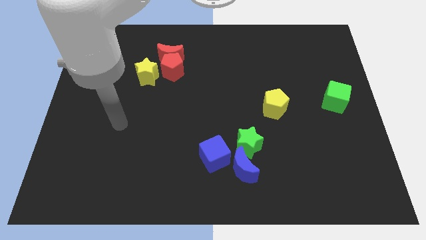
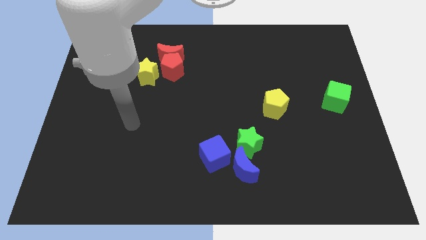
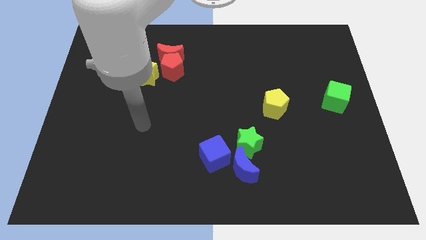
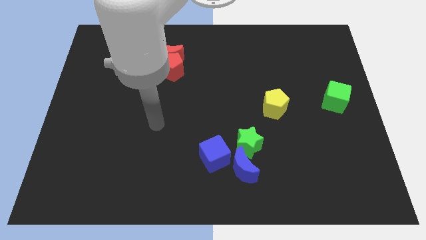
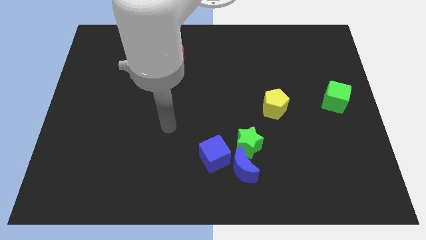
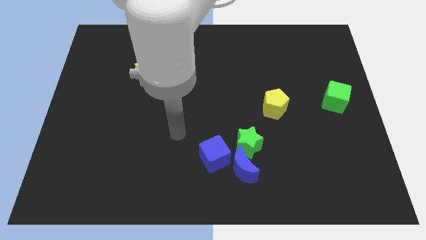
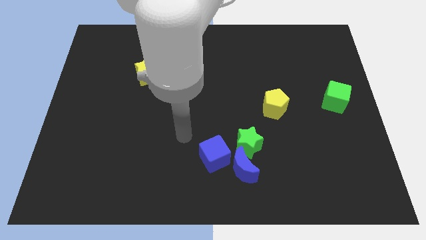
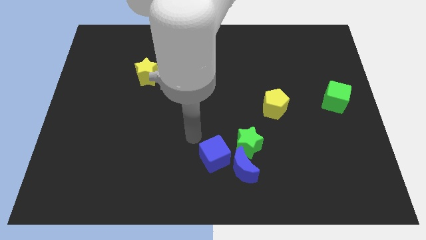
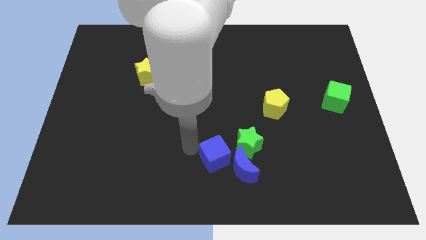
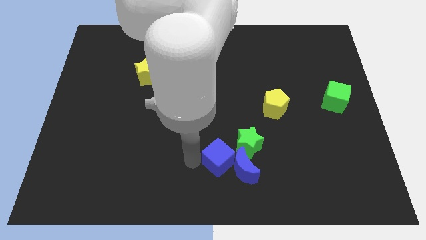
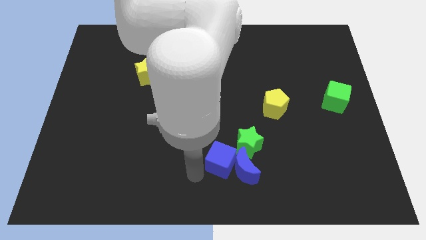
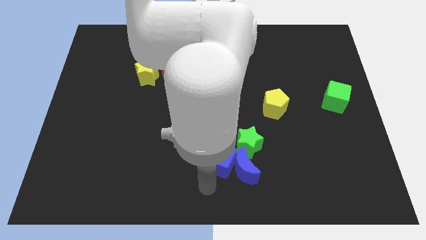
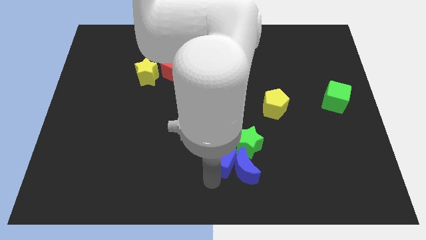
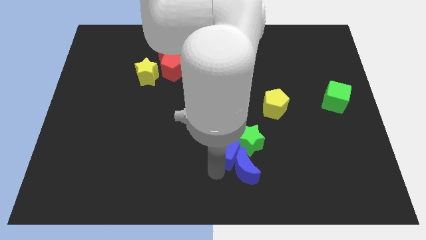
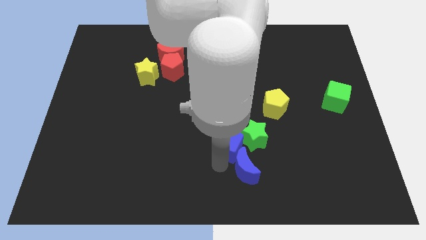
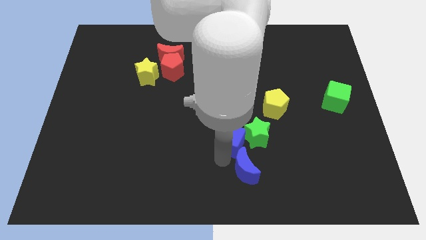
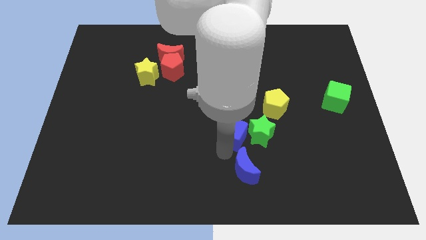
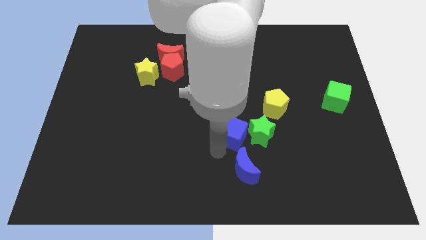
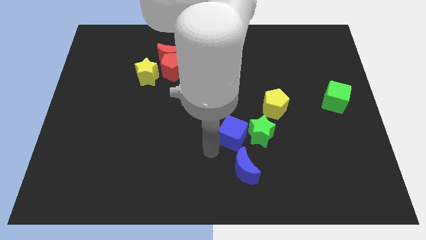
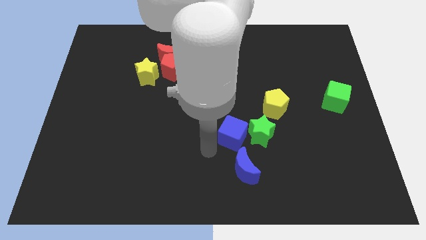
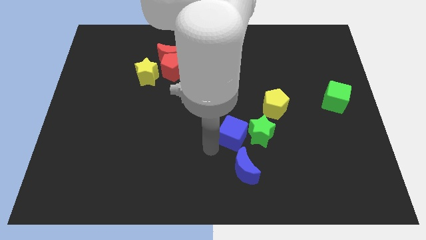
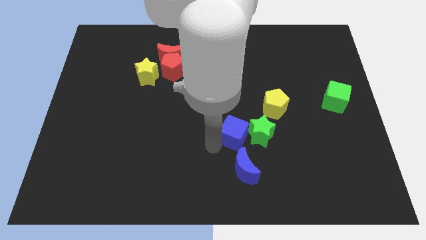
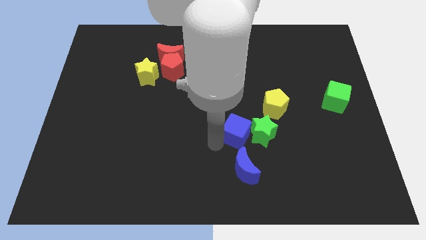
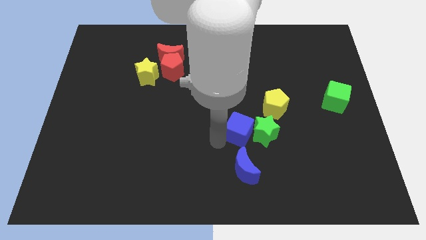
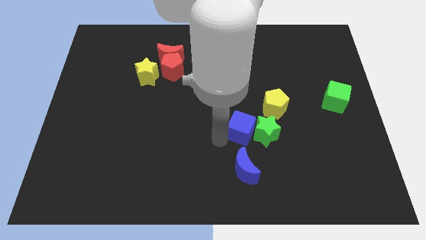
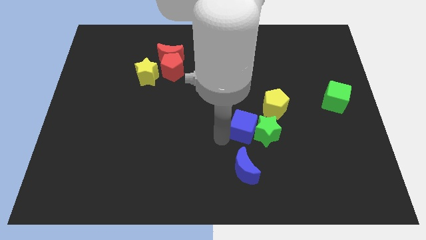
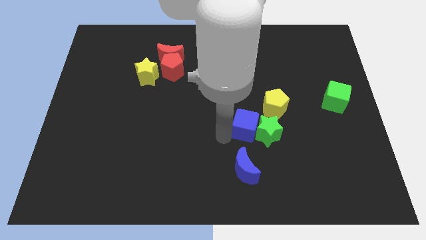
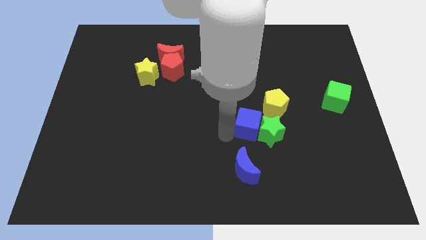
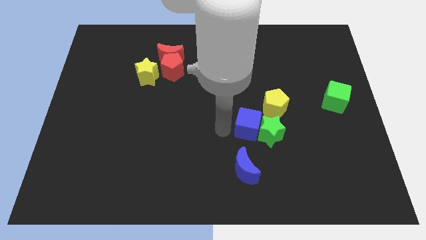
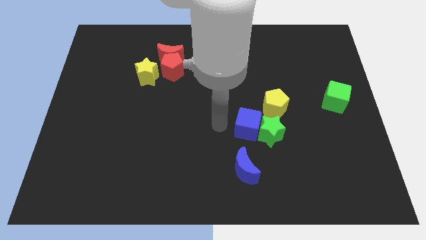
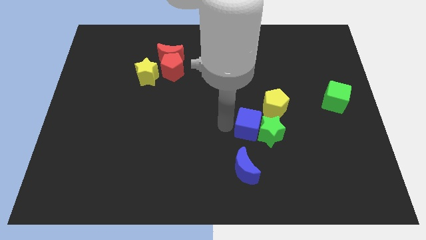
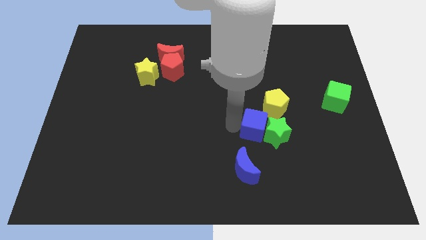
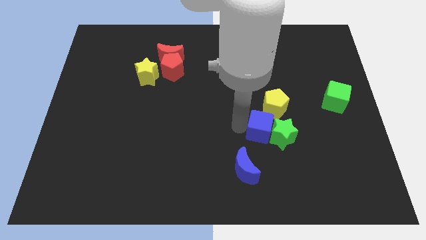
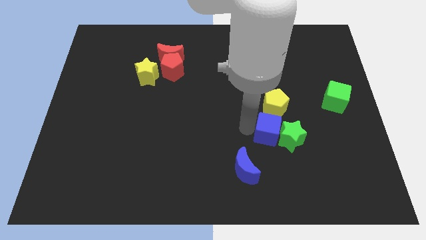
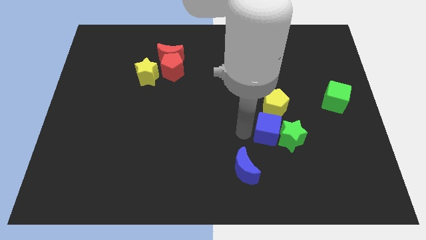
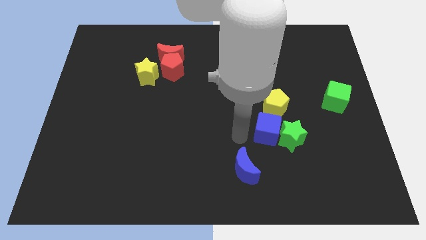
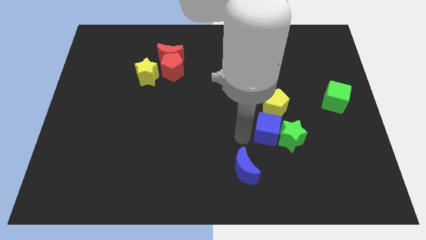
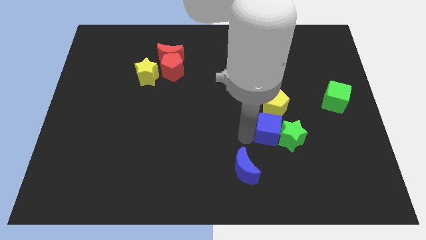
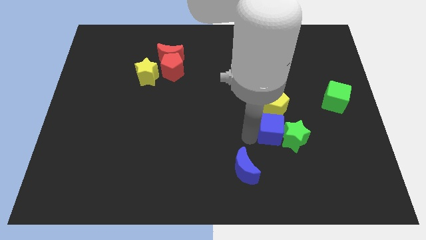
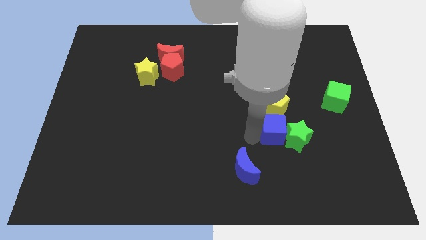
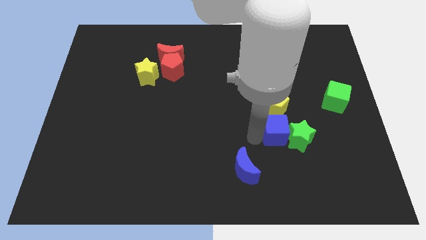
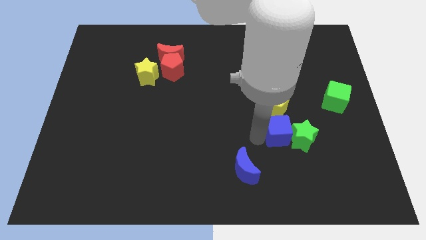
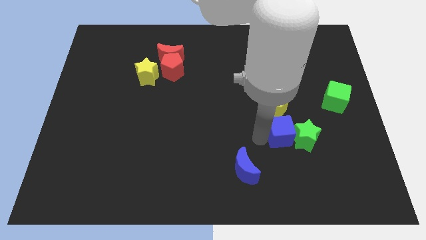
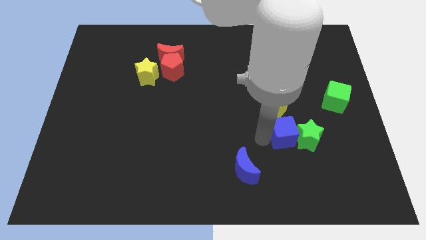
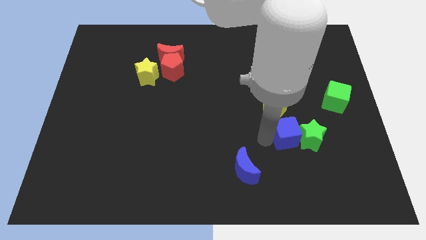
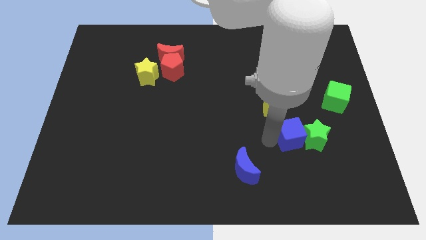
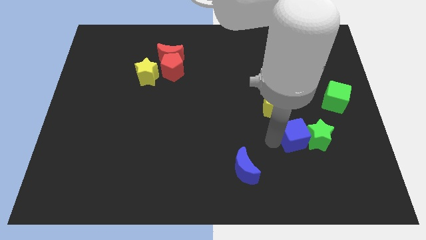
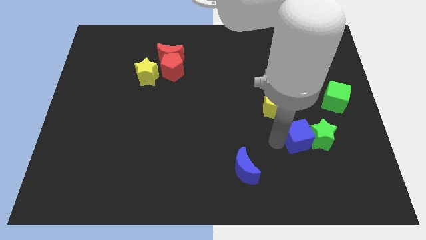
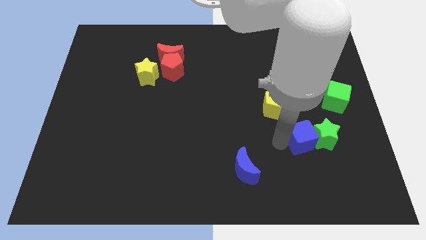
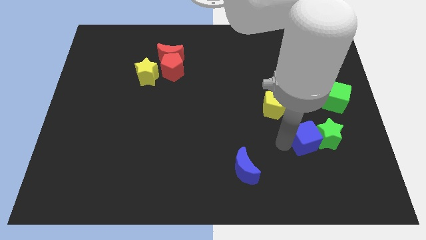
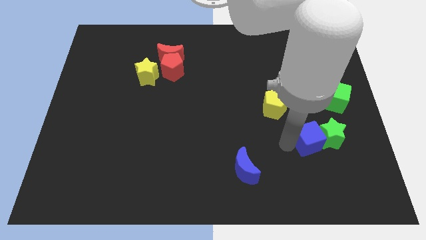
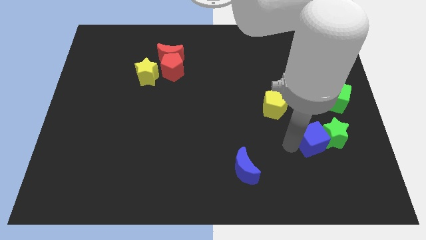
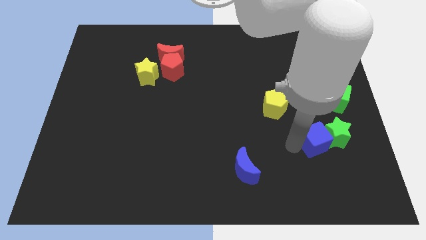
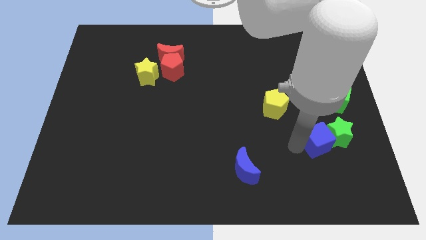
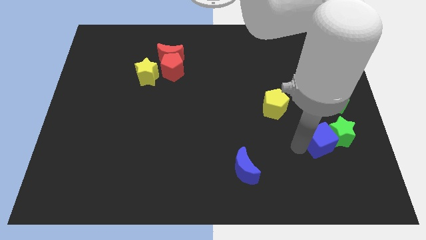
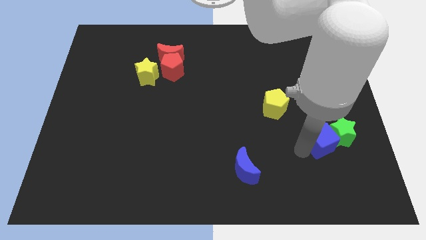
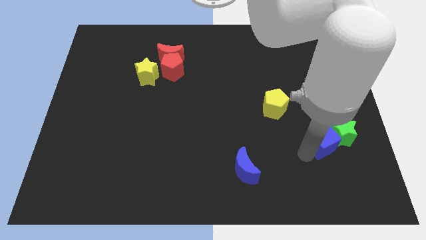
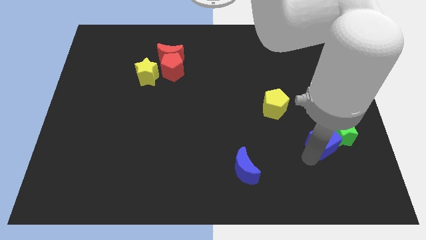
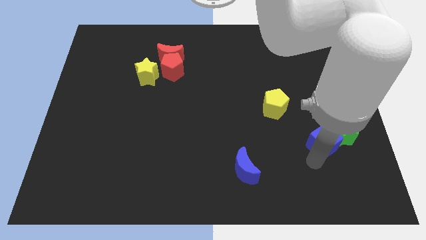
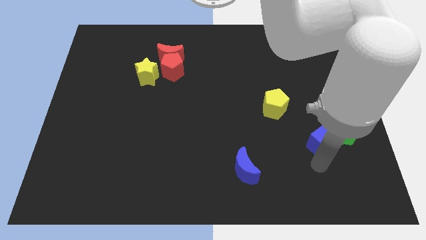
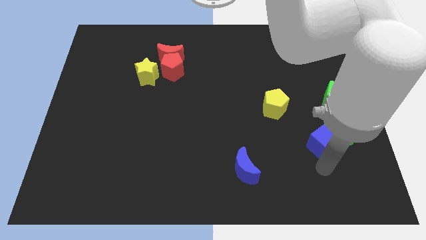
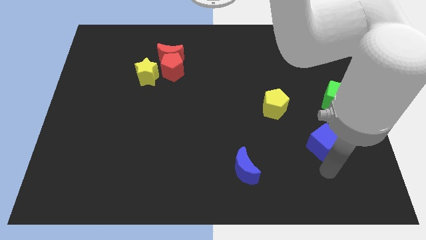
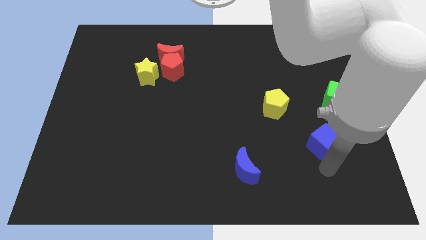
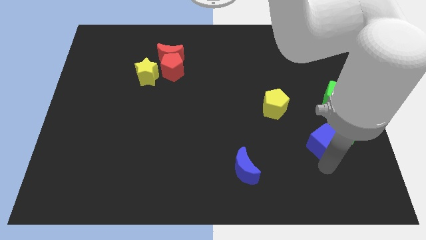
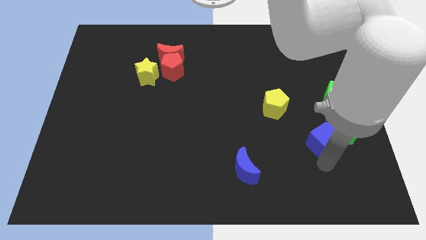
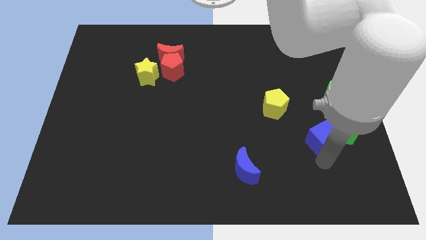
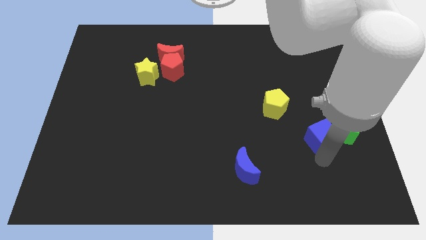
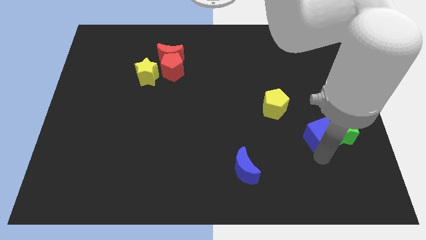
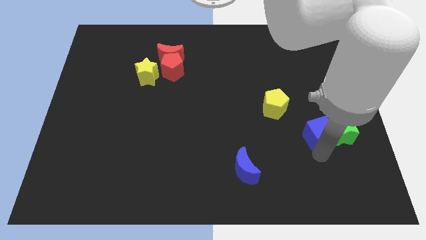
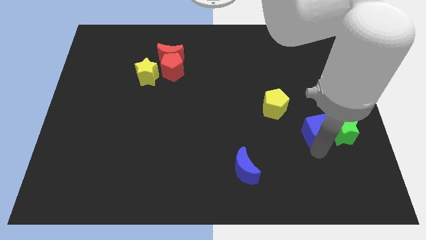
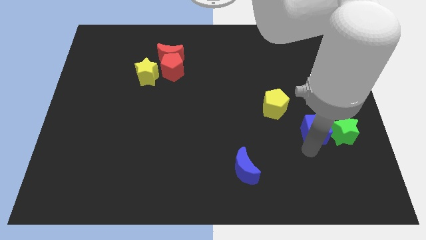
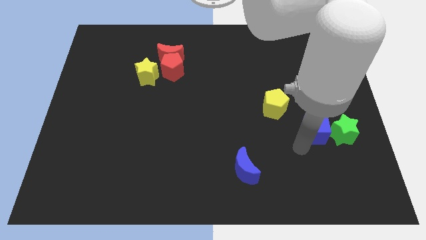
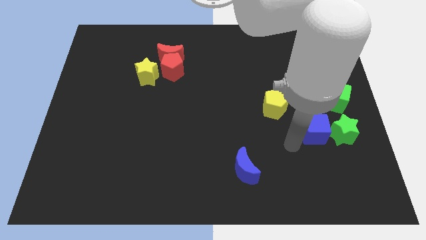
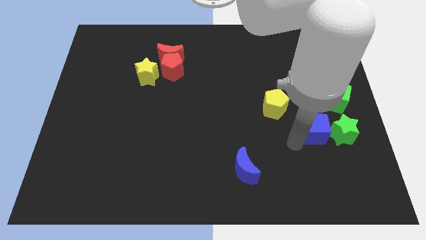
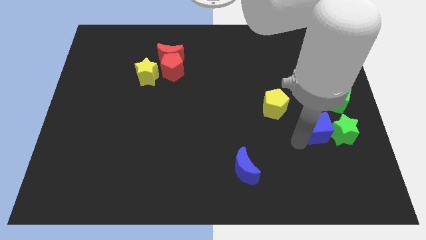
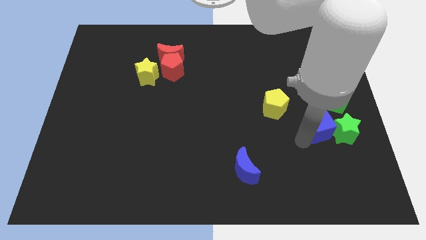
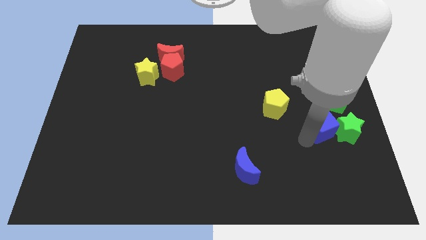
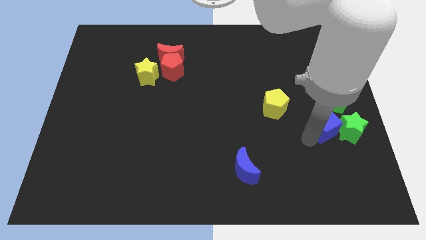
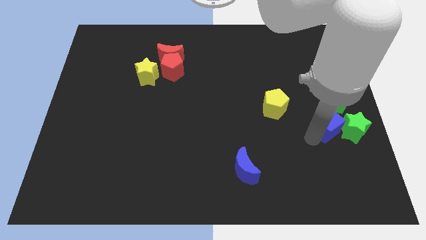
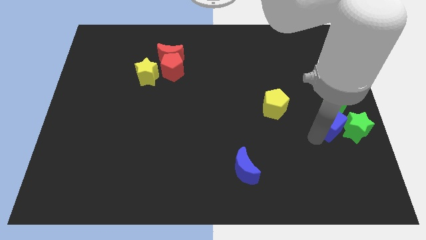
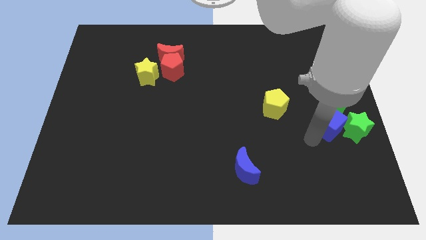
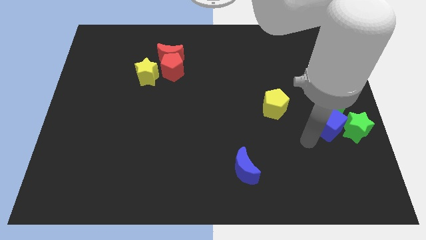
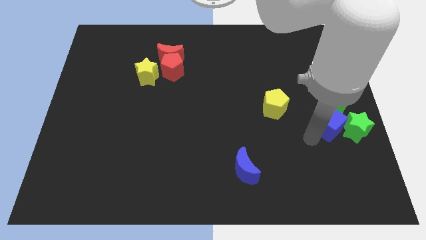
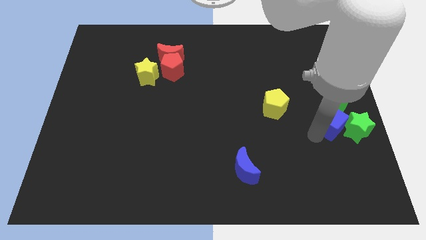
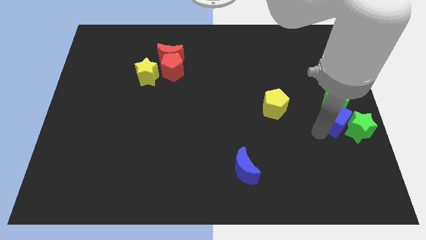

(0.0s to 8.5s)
push the blue cube to the center right
